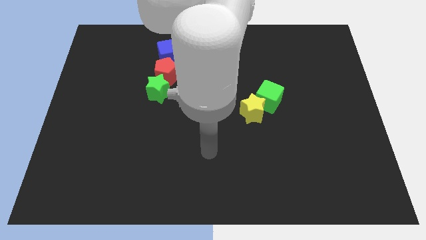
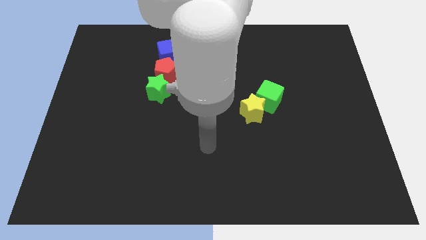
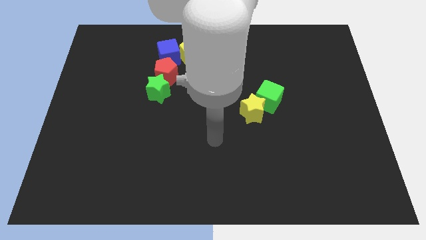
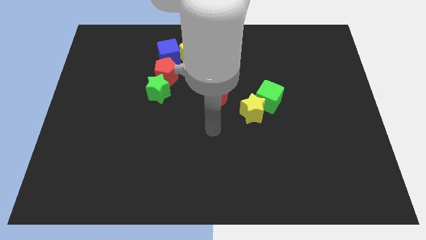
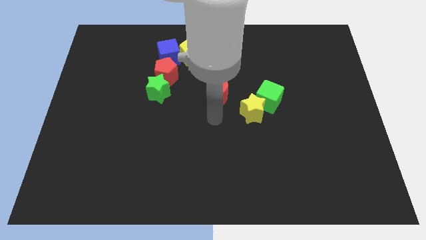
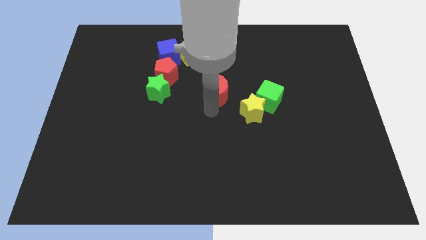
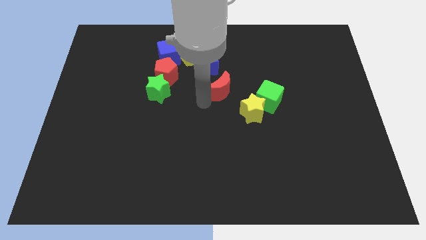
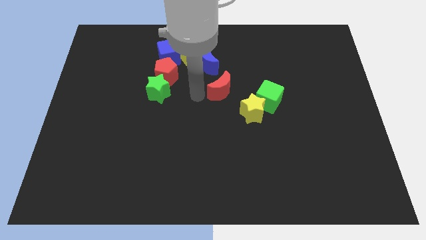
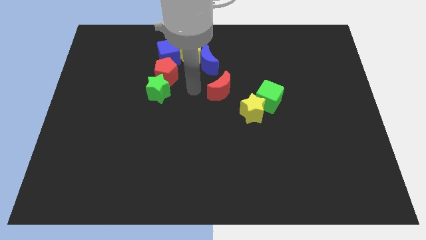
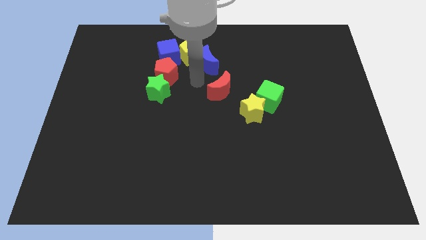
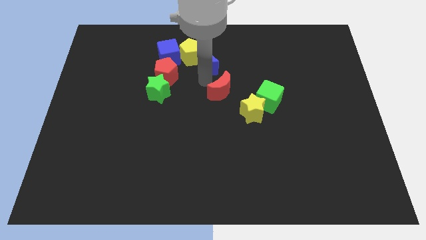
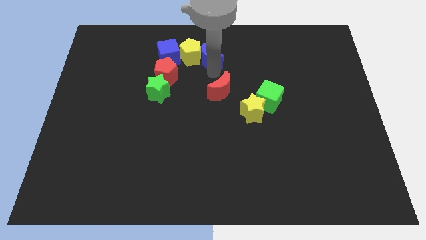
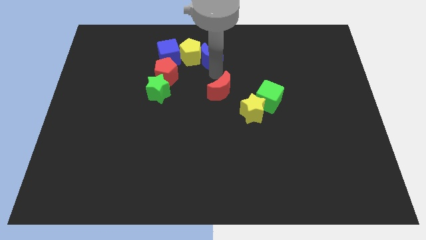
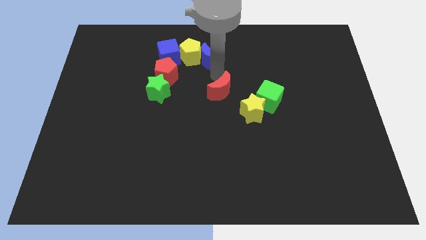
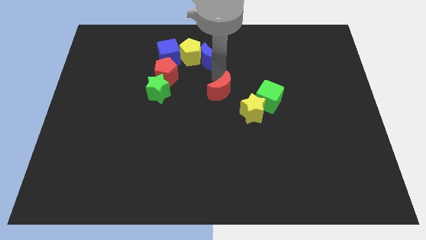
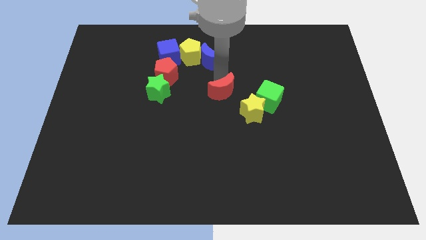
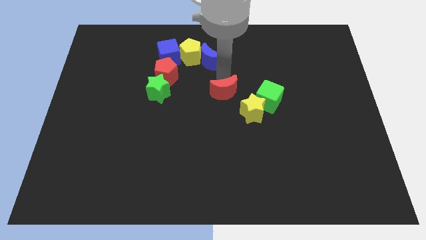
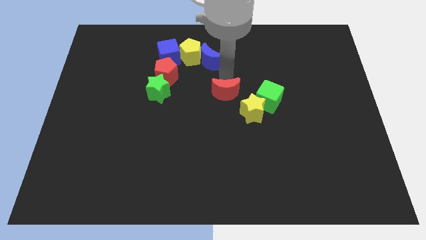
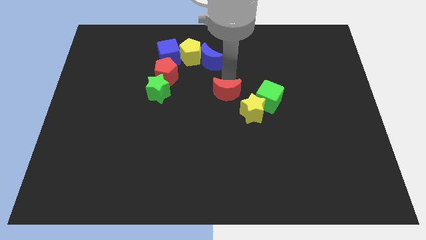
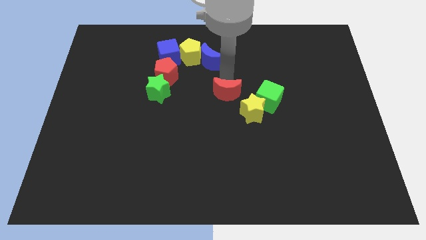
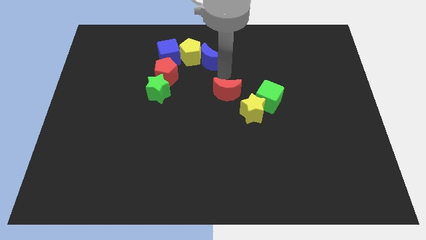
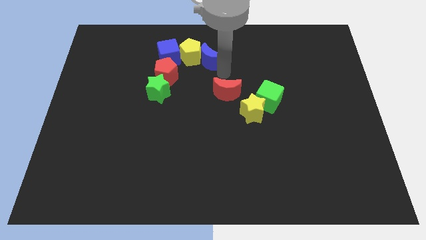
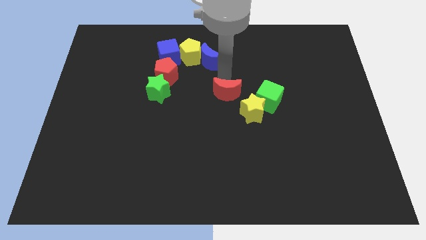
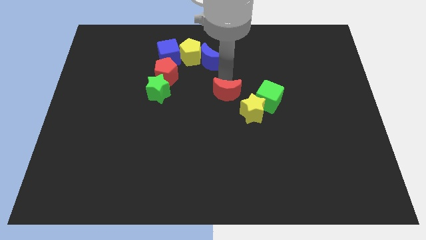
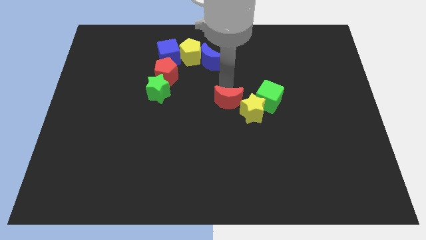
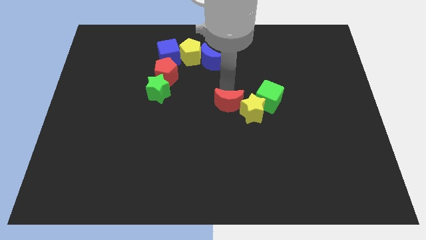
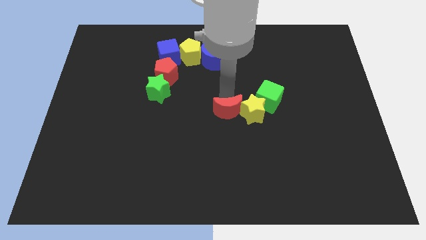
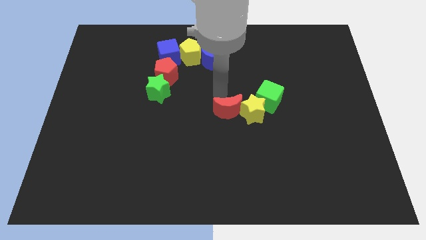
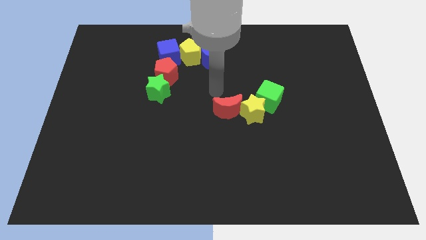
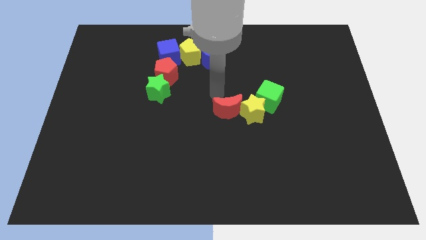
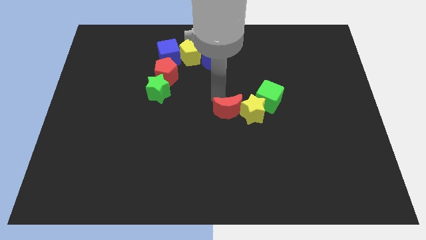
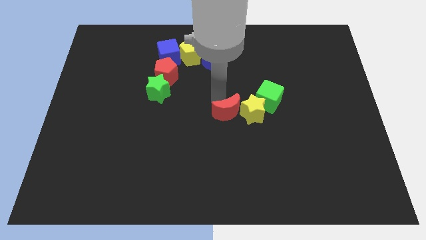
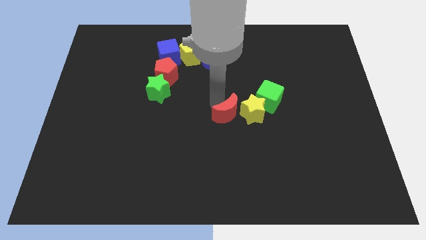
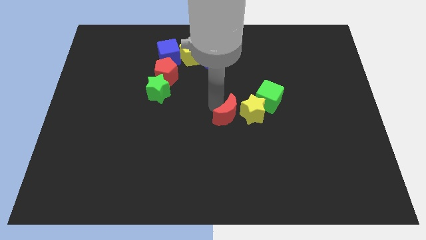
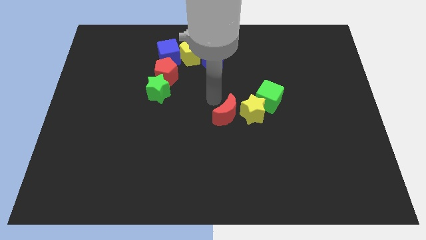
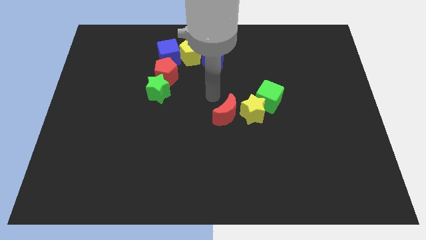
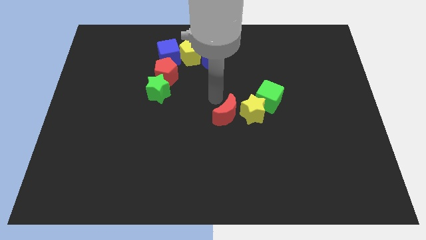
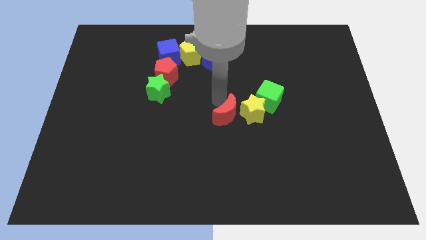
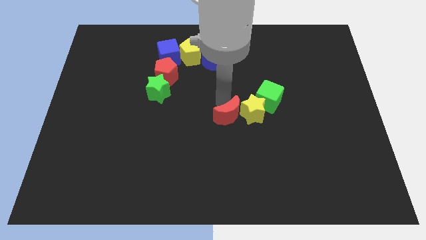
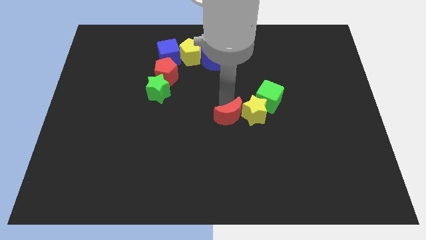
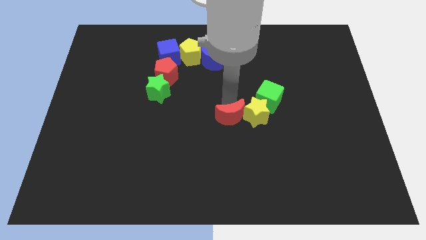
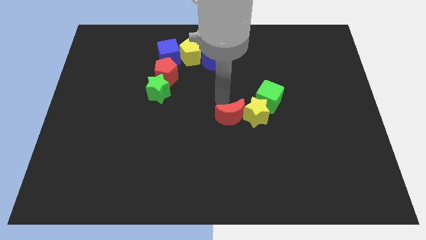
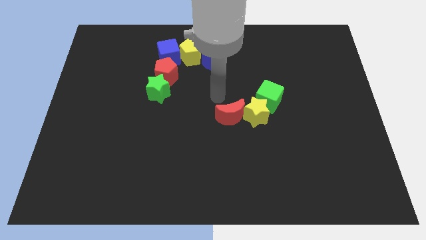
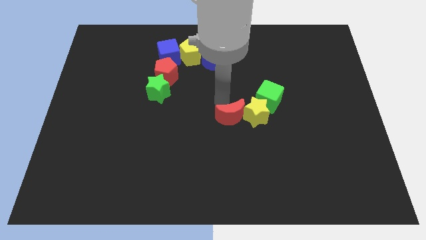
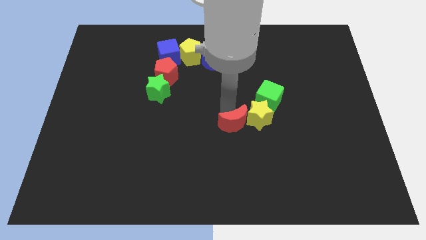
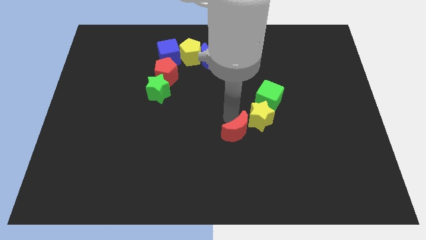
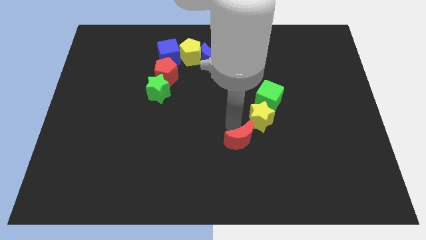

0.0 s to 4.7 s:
push the red moon below the yellow star

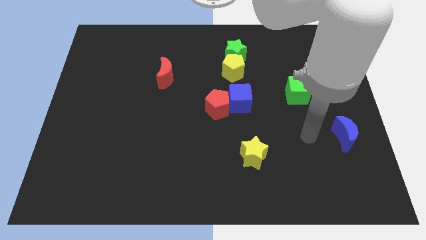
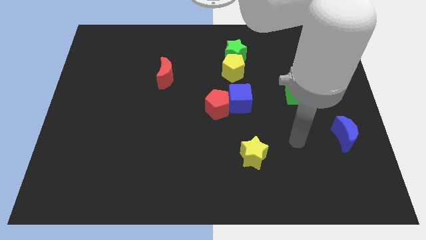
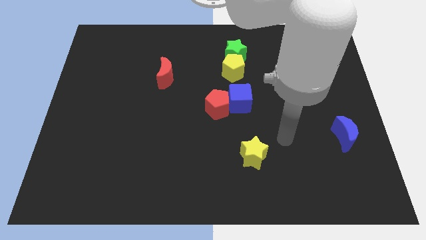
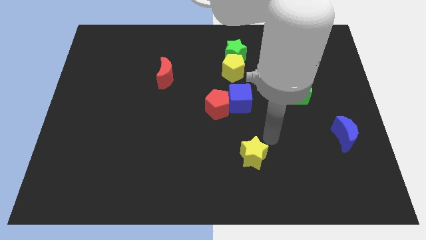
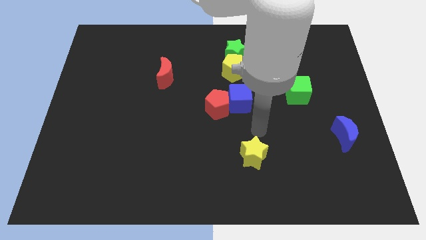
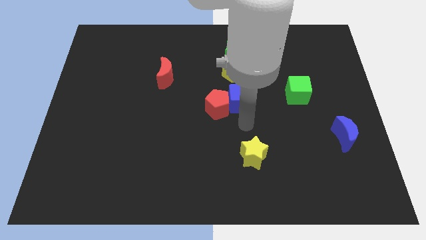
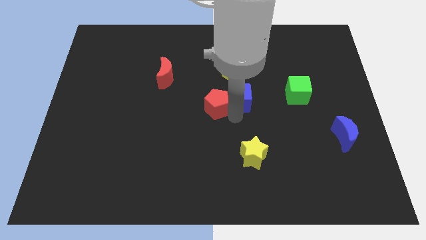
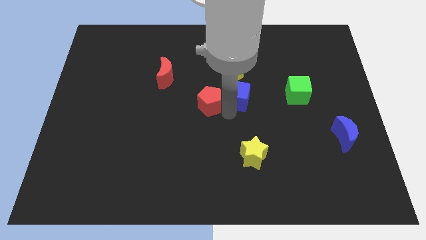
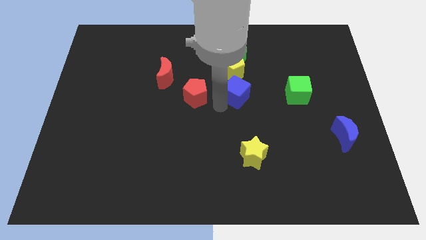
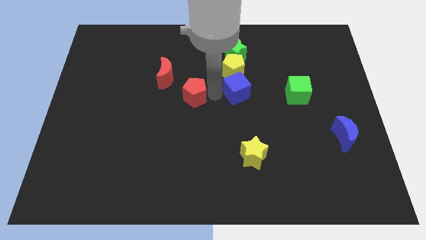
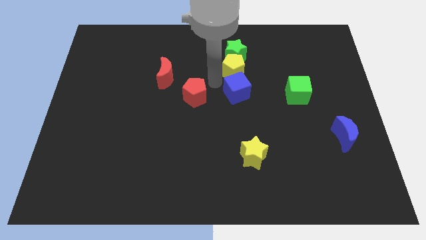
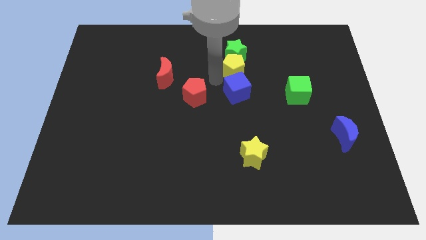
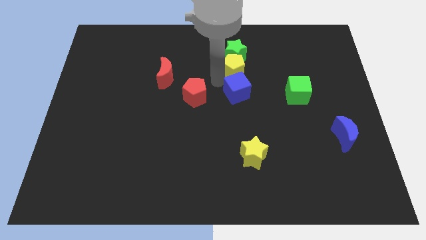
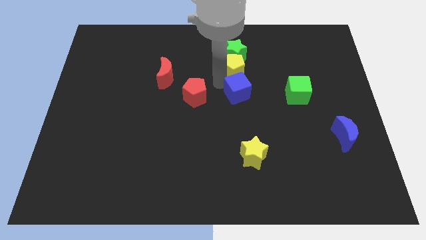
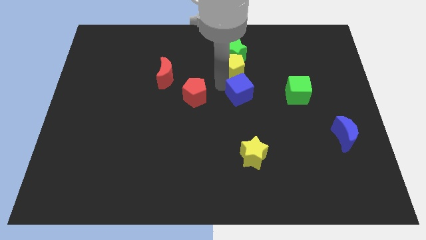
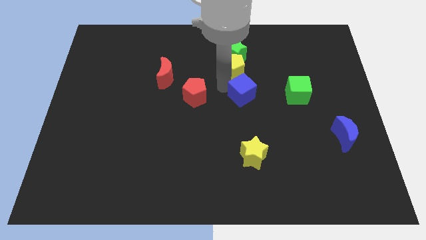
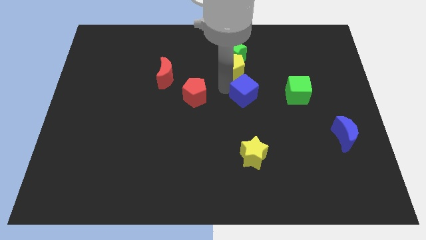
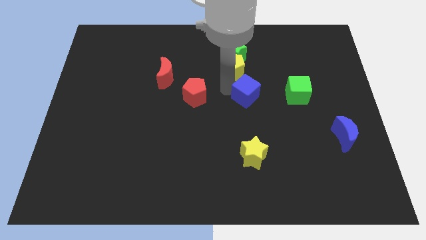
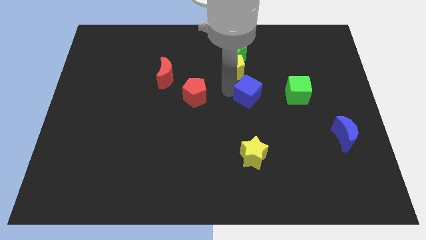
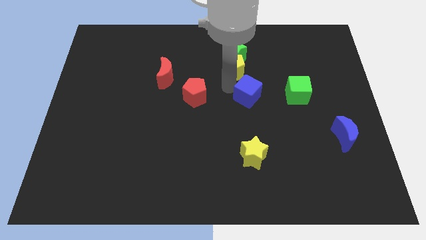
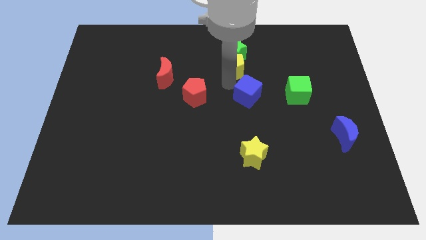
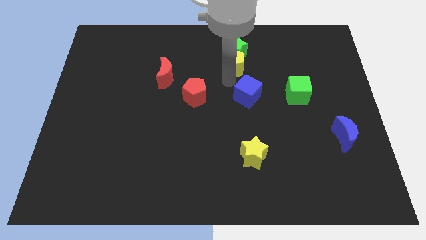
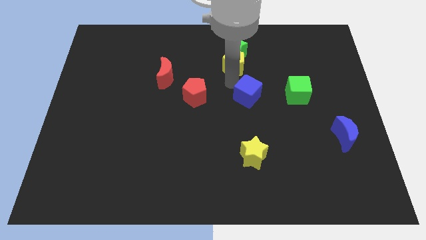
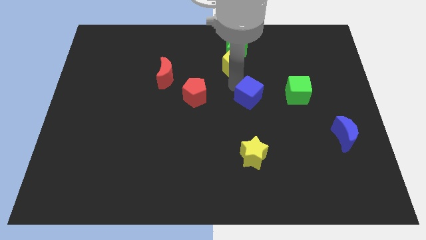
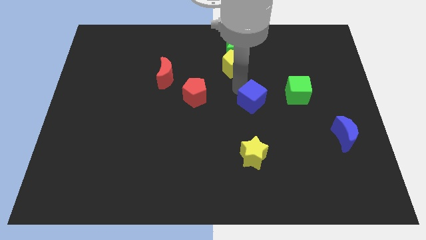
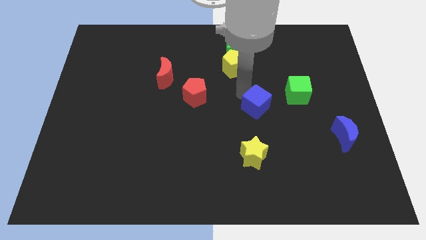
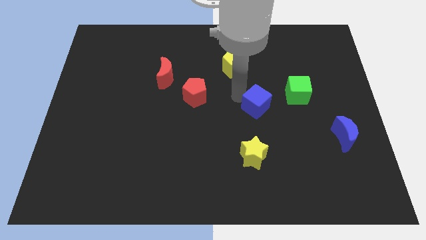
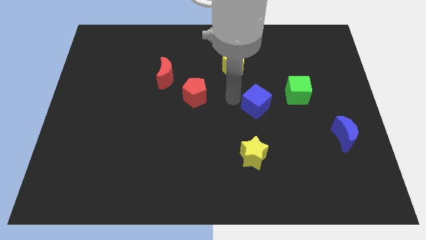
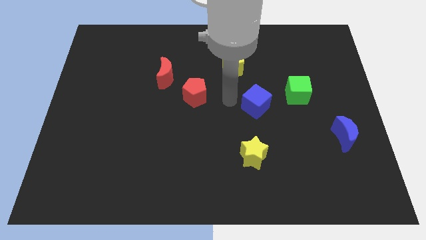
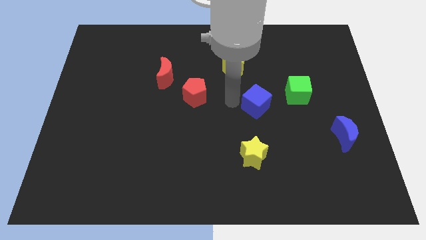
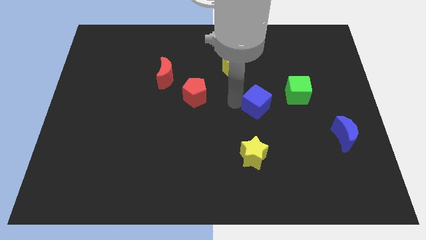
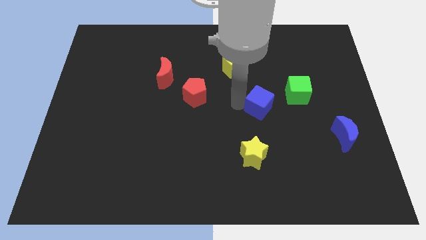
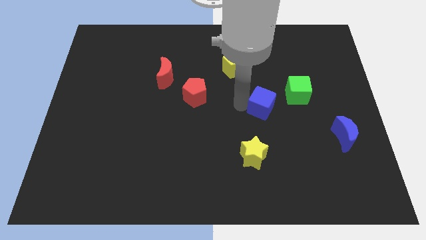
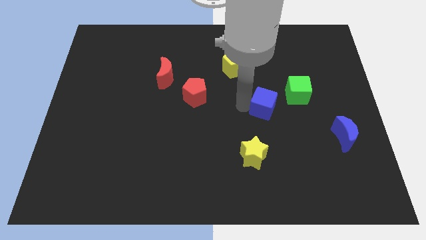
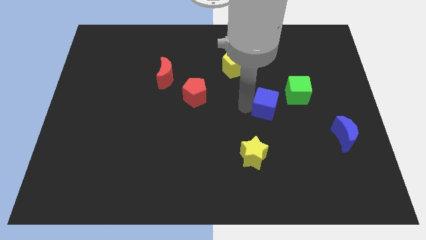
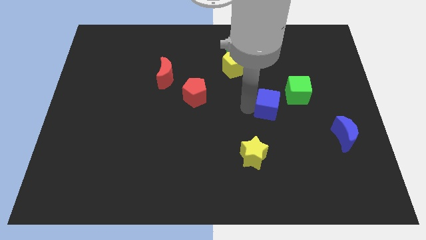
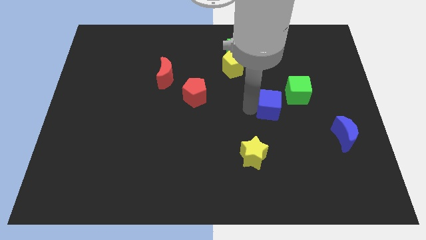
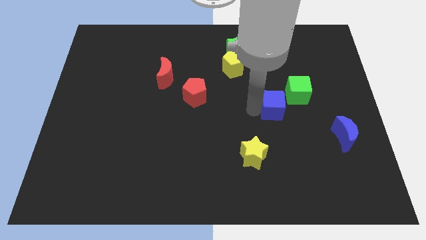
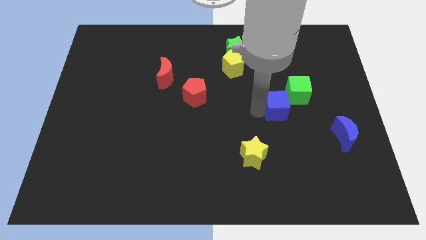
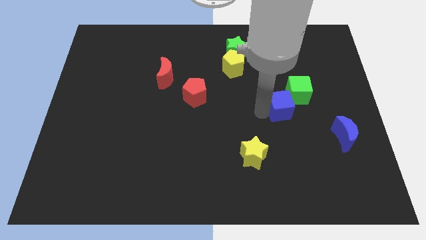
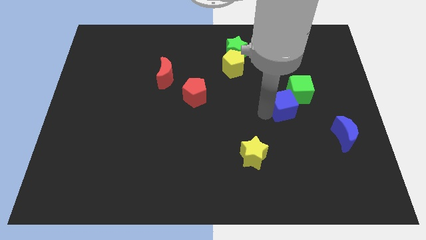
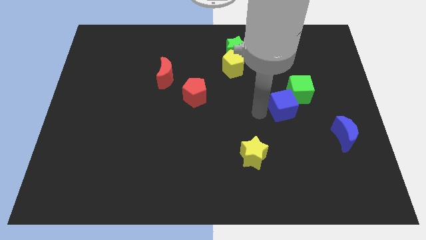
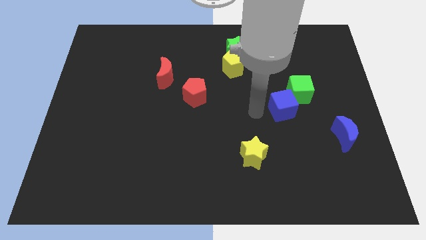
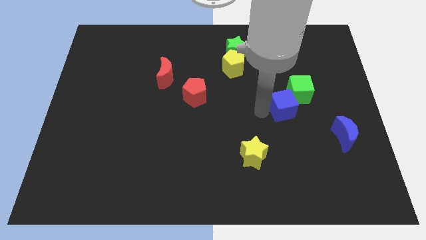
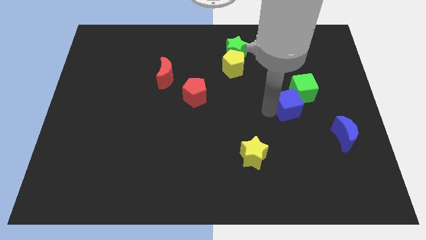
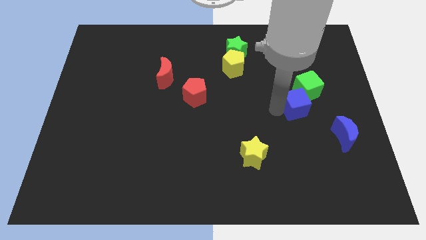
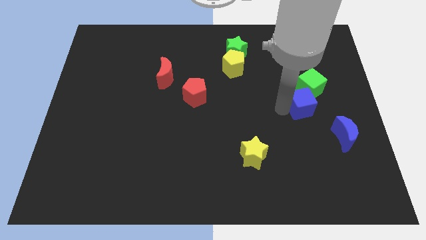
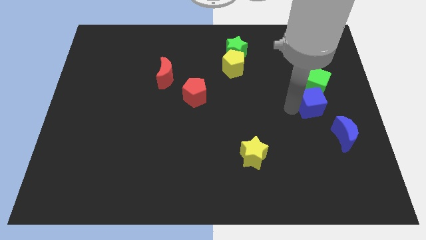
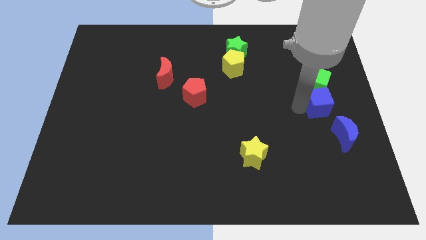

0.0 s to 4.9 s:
push the blue cube above the blue moon
